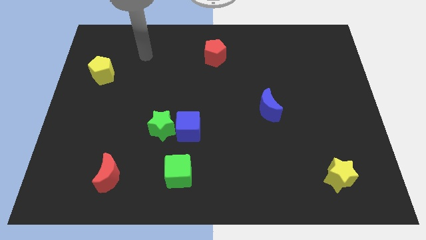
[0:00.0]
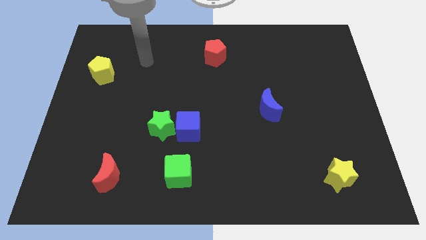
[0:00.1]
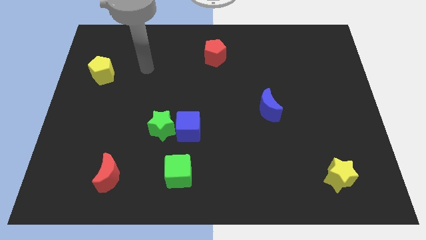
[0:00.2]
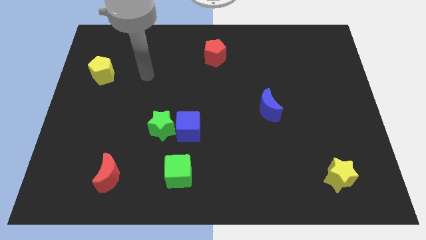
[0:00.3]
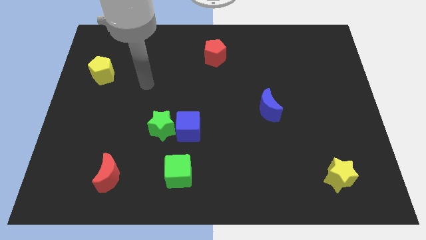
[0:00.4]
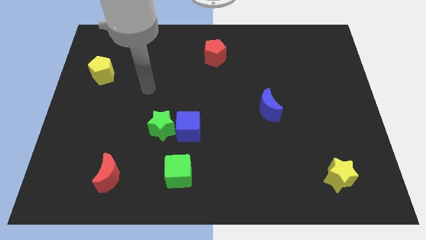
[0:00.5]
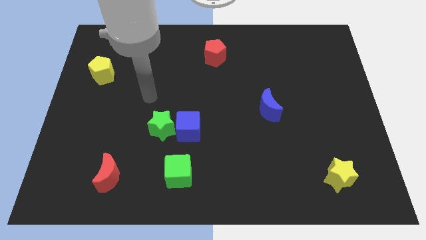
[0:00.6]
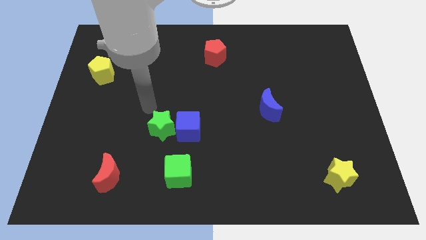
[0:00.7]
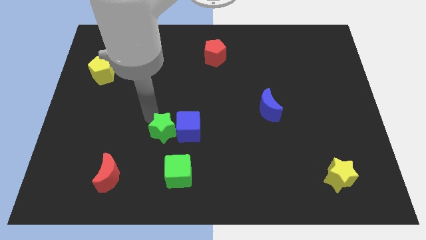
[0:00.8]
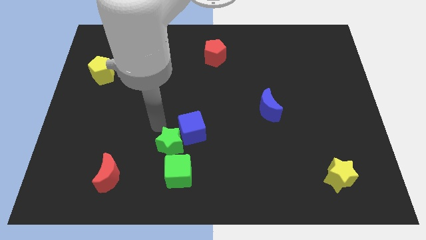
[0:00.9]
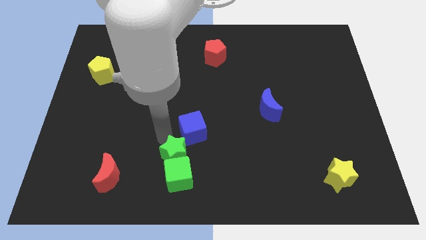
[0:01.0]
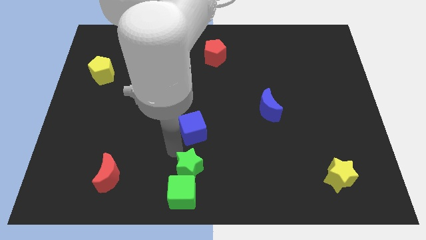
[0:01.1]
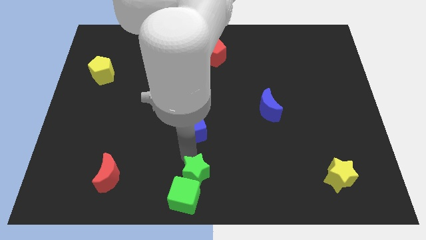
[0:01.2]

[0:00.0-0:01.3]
pull the blue cube apart from the green star

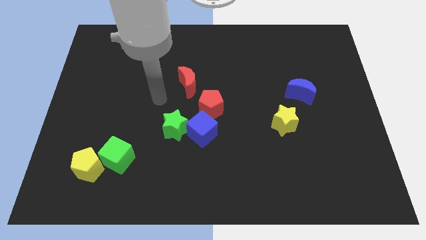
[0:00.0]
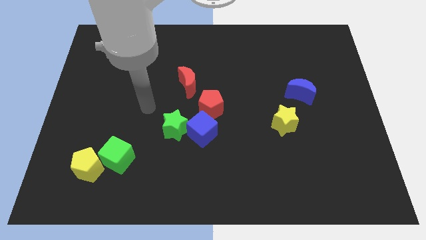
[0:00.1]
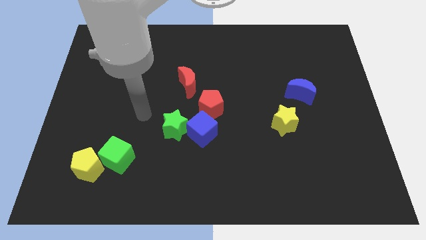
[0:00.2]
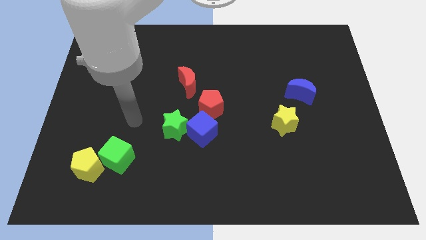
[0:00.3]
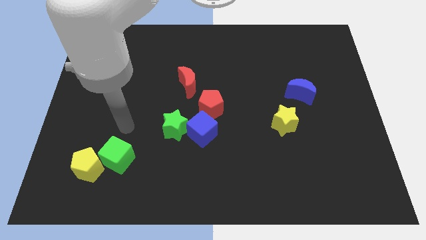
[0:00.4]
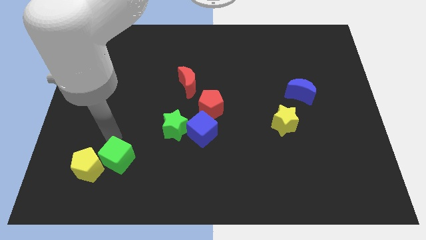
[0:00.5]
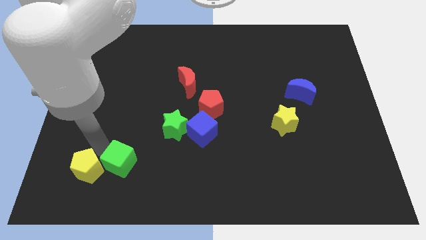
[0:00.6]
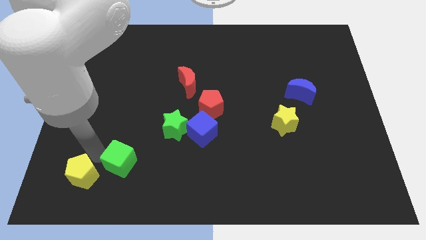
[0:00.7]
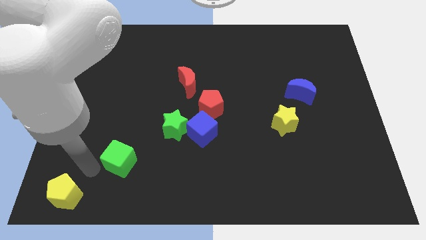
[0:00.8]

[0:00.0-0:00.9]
move the green cube away from the yellow pentagon

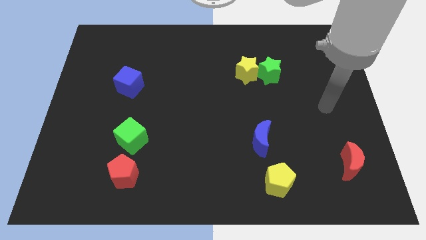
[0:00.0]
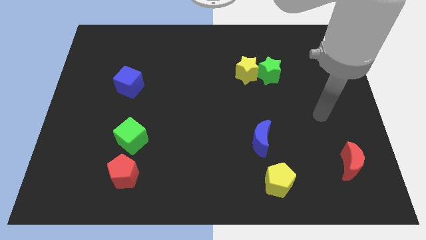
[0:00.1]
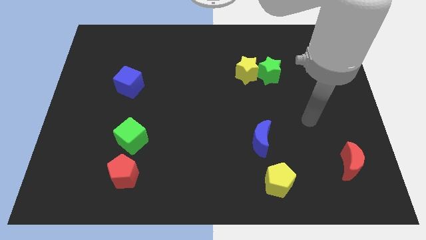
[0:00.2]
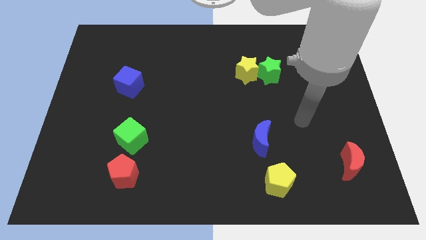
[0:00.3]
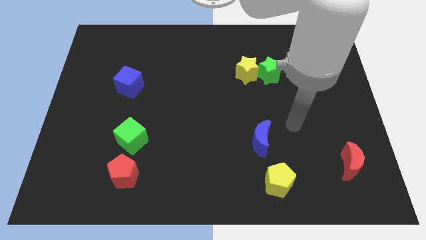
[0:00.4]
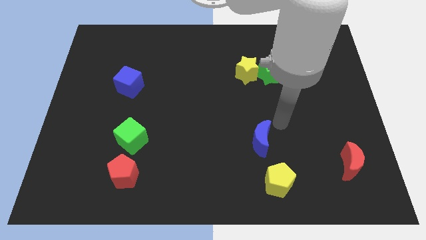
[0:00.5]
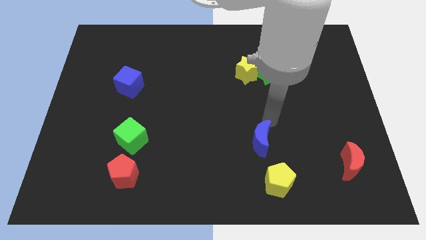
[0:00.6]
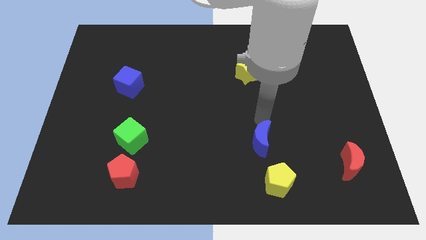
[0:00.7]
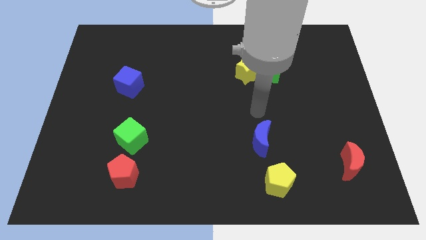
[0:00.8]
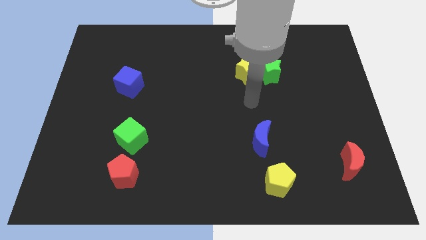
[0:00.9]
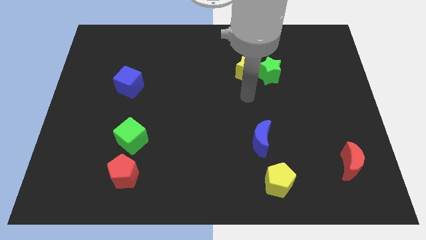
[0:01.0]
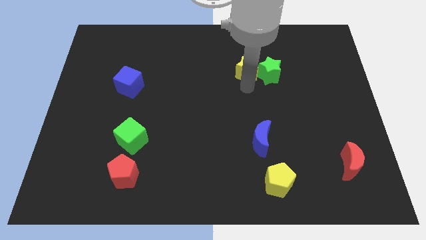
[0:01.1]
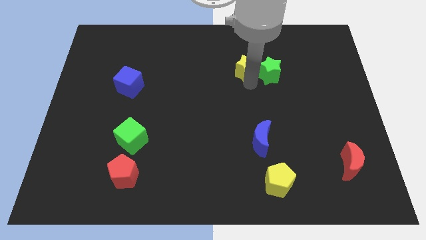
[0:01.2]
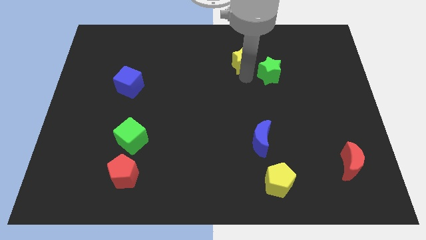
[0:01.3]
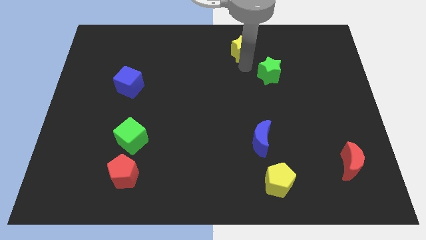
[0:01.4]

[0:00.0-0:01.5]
separate the green star from the yellow star

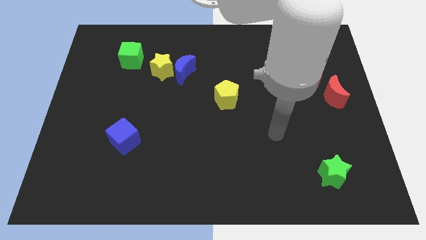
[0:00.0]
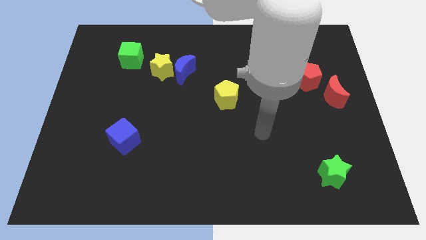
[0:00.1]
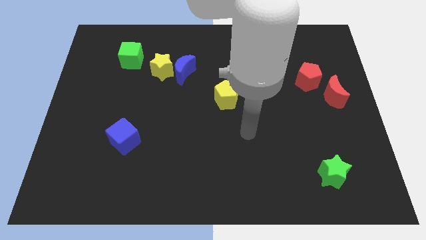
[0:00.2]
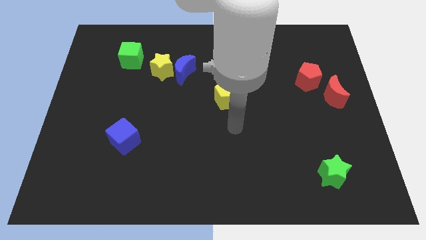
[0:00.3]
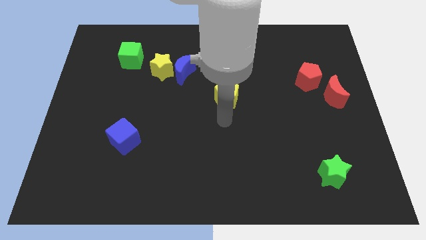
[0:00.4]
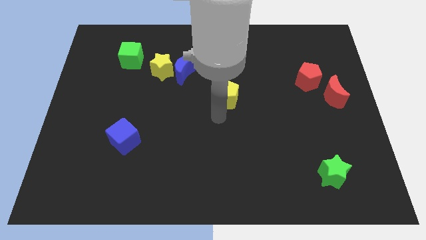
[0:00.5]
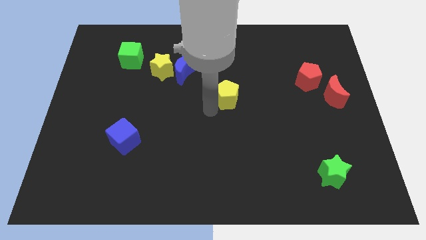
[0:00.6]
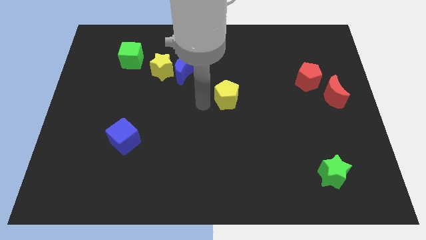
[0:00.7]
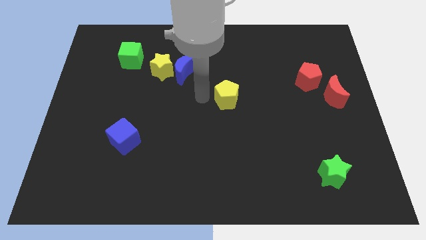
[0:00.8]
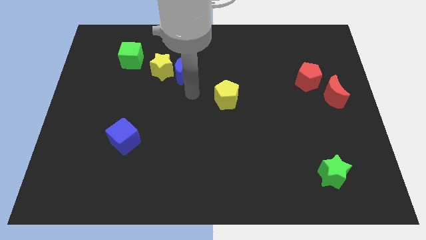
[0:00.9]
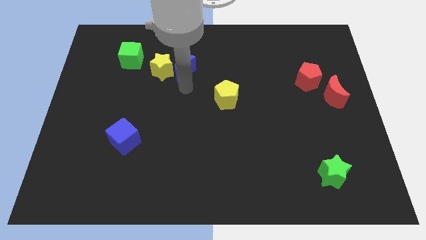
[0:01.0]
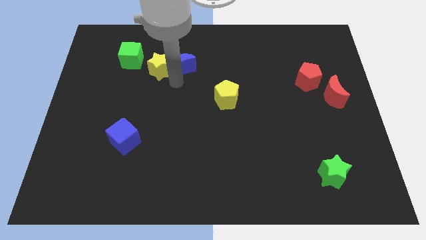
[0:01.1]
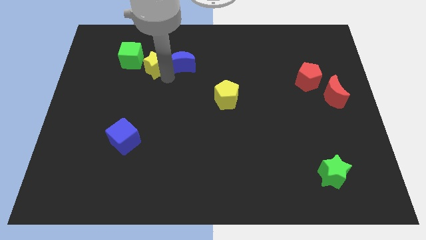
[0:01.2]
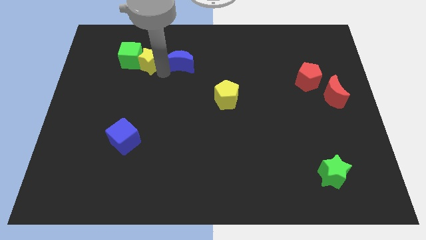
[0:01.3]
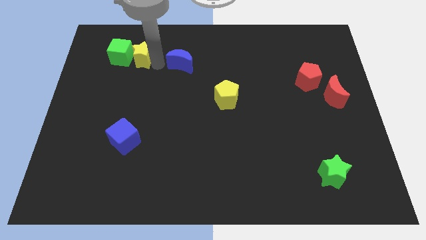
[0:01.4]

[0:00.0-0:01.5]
pull the blue moon apart from the yellow star

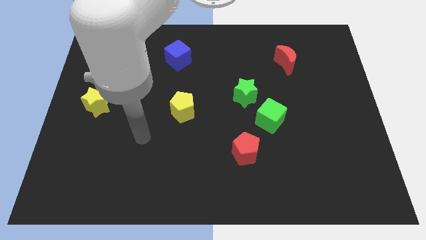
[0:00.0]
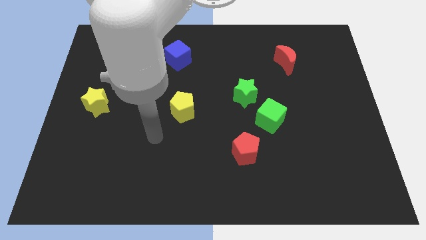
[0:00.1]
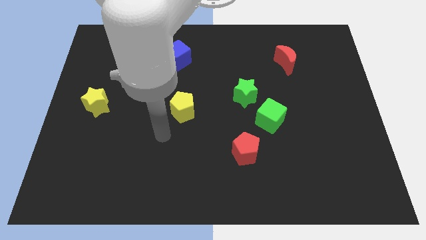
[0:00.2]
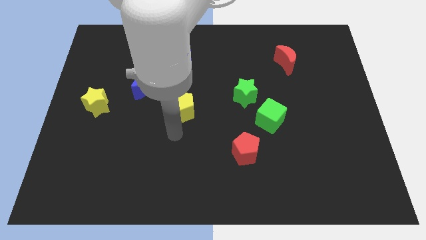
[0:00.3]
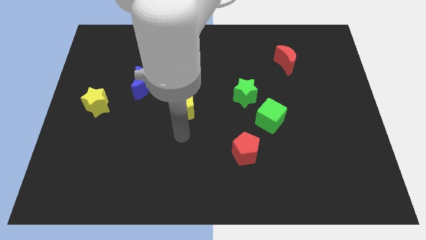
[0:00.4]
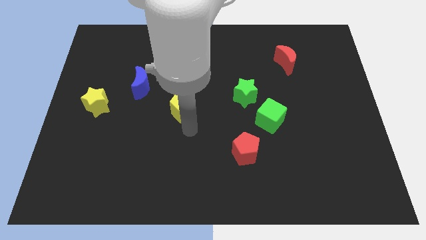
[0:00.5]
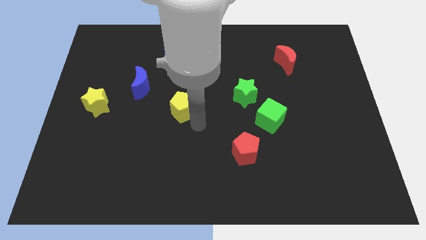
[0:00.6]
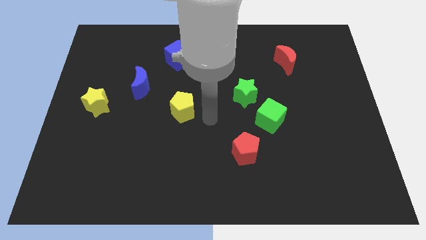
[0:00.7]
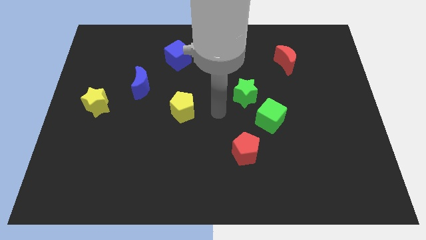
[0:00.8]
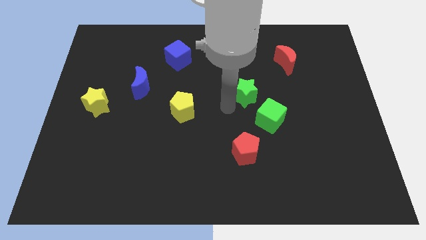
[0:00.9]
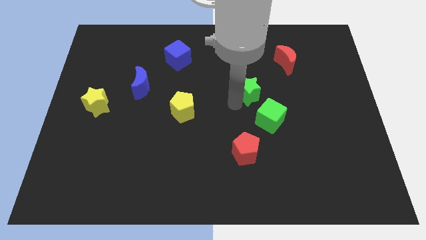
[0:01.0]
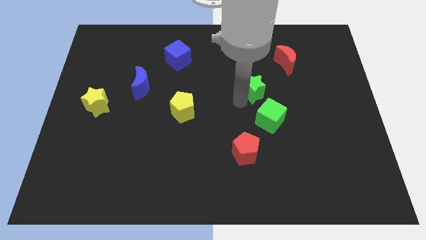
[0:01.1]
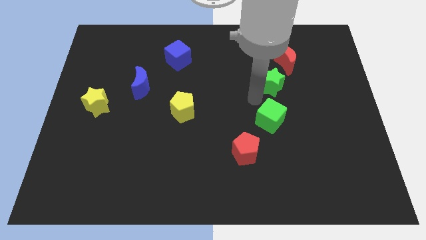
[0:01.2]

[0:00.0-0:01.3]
separate the green cube from the green star

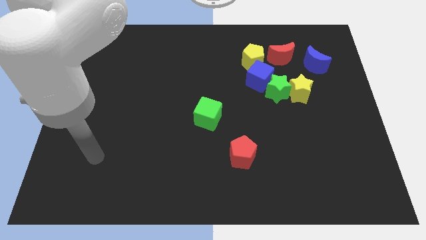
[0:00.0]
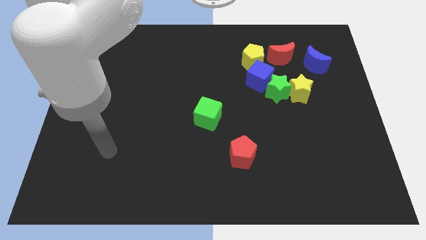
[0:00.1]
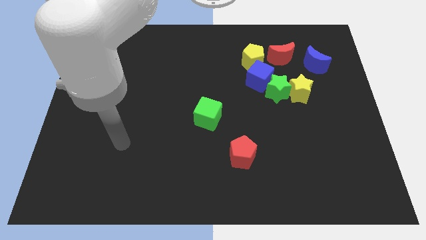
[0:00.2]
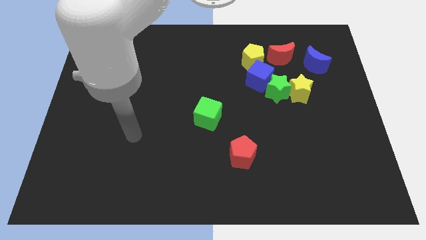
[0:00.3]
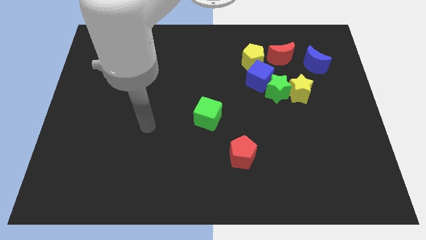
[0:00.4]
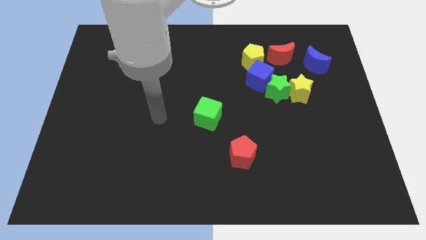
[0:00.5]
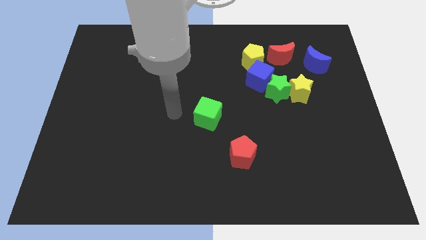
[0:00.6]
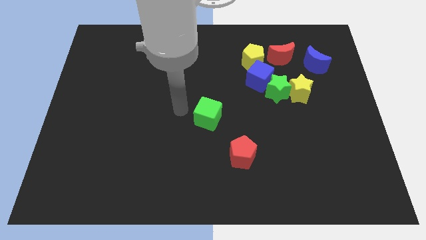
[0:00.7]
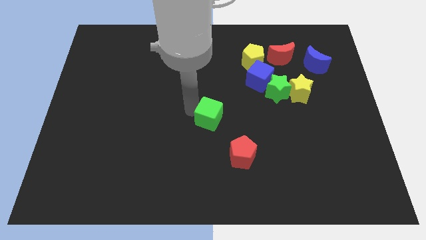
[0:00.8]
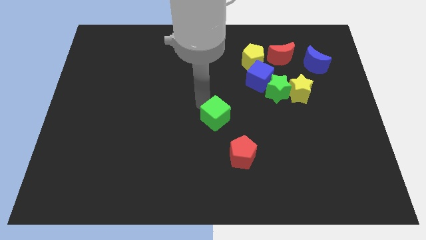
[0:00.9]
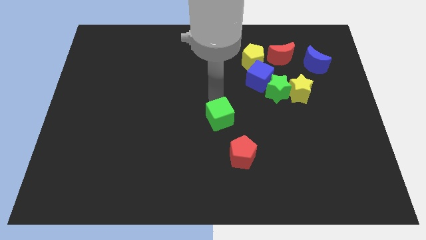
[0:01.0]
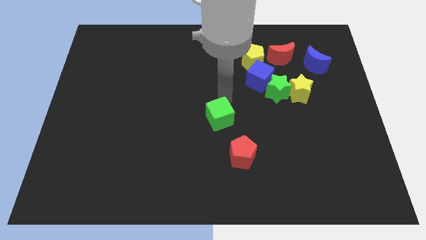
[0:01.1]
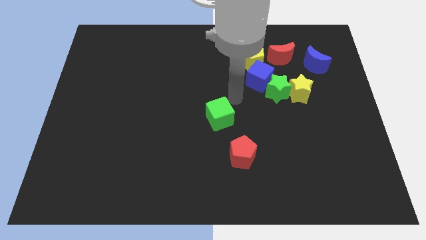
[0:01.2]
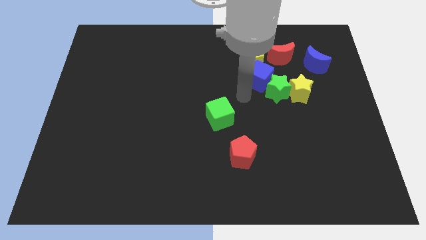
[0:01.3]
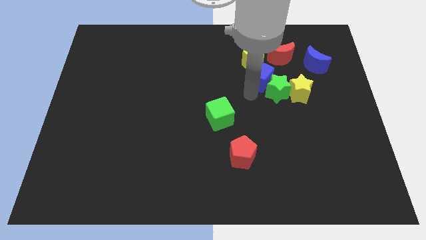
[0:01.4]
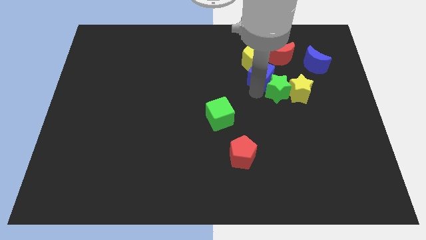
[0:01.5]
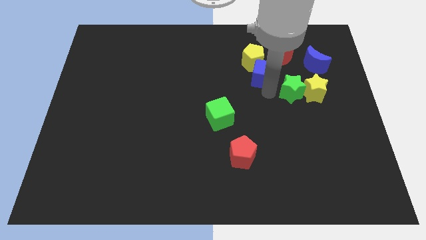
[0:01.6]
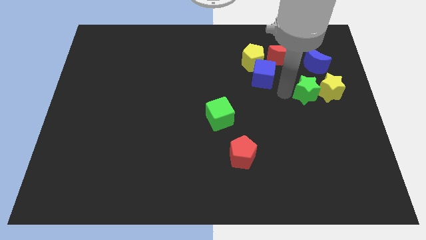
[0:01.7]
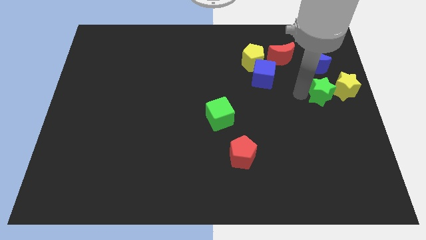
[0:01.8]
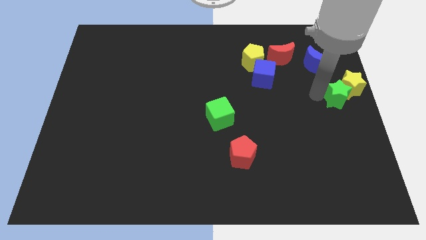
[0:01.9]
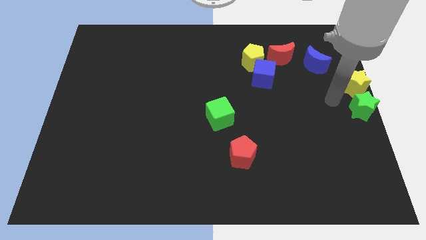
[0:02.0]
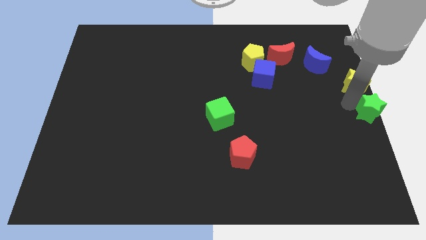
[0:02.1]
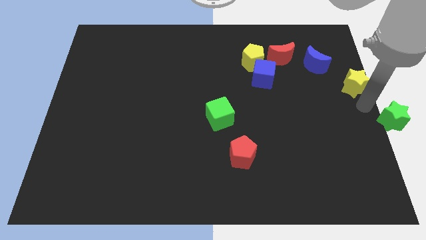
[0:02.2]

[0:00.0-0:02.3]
pull the yellow star apart from the green star

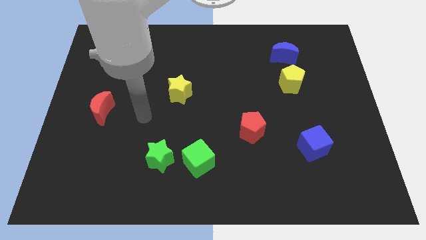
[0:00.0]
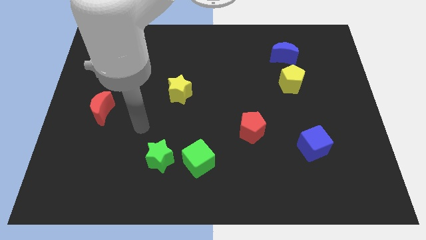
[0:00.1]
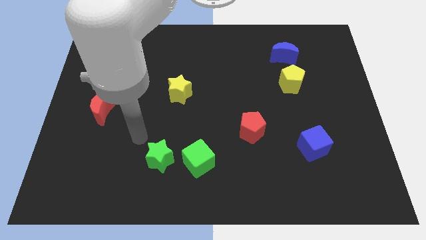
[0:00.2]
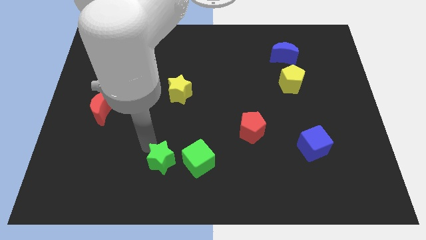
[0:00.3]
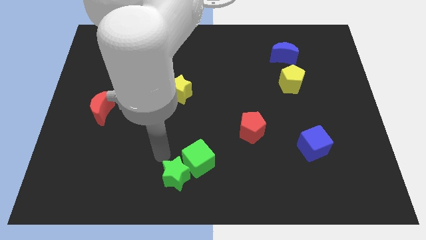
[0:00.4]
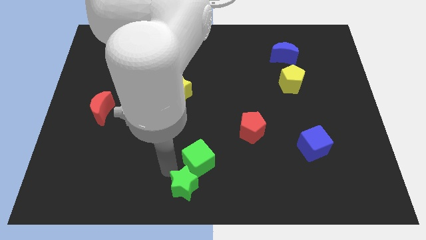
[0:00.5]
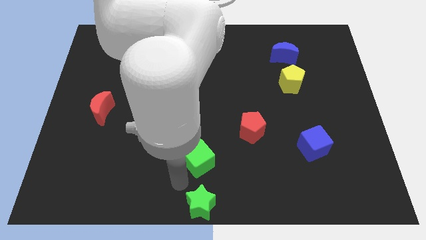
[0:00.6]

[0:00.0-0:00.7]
pull the green cube apart from the green star
